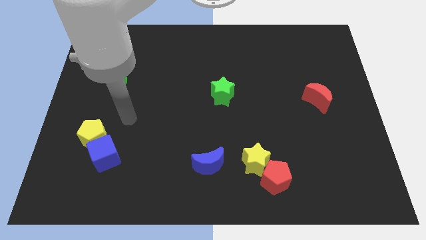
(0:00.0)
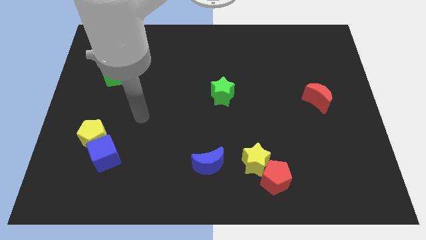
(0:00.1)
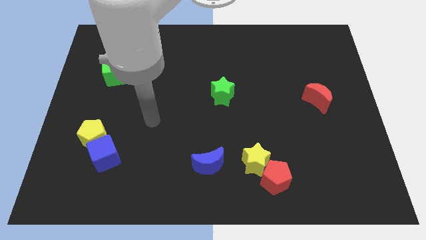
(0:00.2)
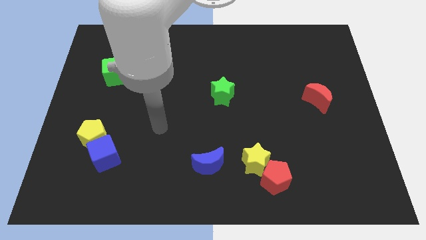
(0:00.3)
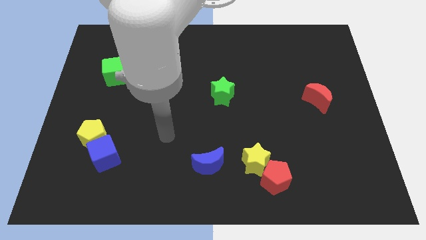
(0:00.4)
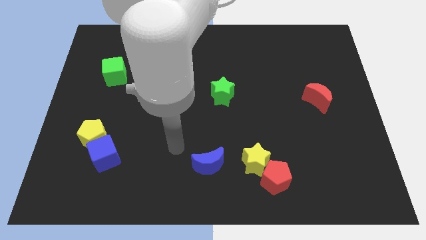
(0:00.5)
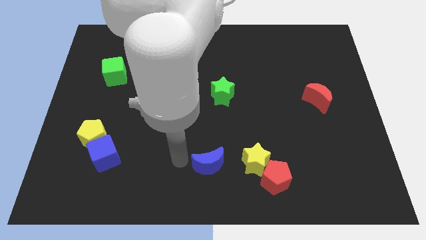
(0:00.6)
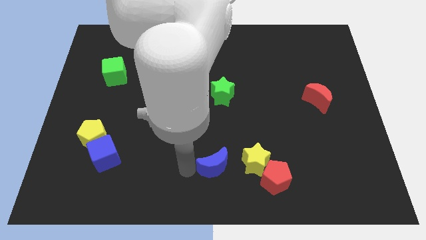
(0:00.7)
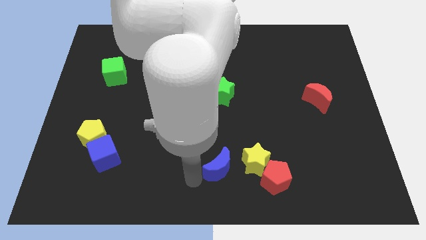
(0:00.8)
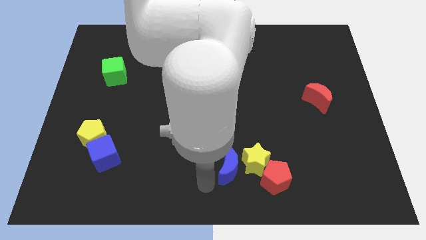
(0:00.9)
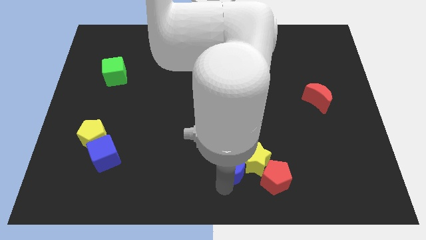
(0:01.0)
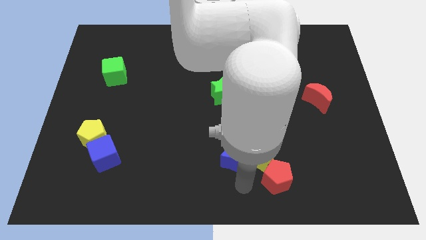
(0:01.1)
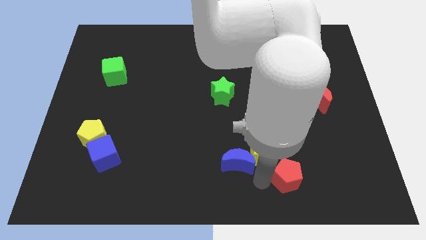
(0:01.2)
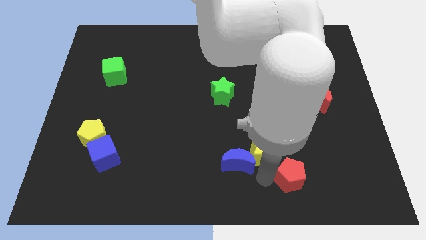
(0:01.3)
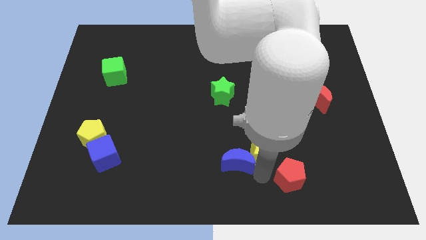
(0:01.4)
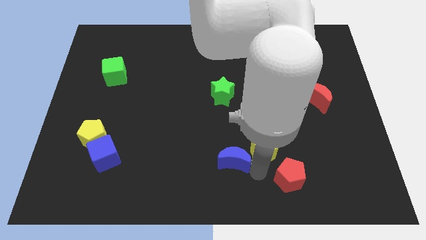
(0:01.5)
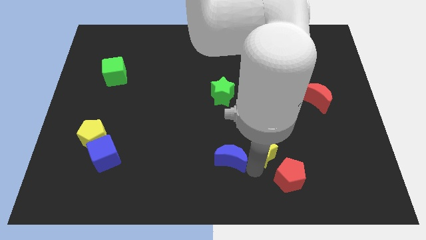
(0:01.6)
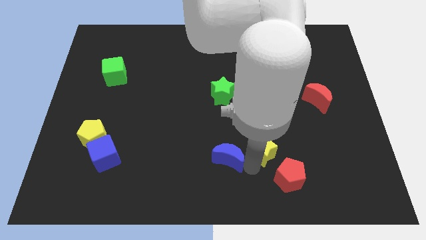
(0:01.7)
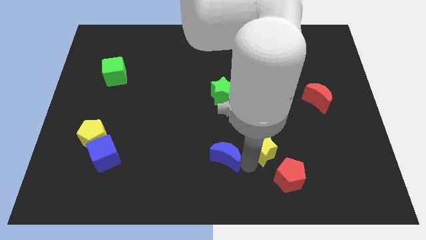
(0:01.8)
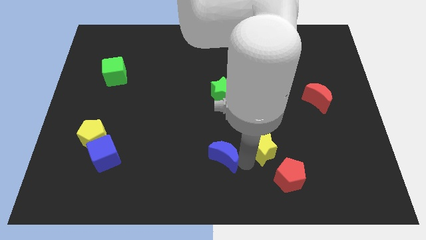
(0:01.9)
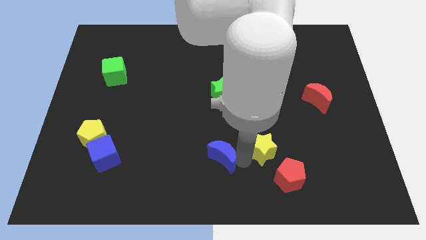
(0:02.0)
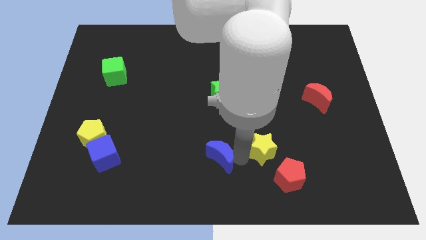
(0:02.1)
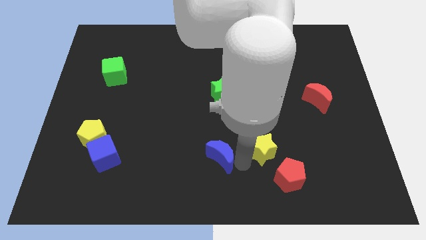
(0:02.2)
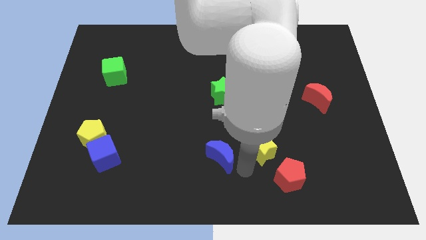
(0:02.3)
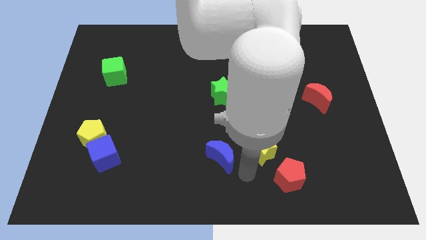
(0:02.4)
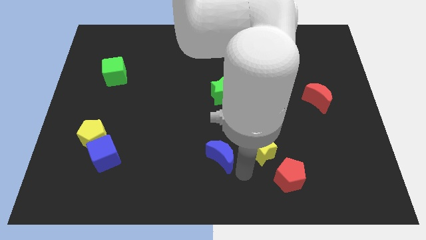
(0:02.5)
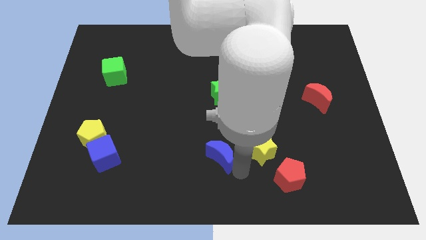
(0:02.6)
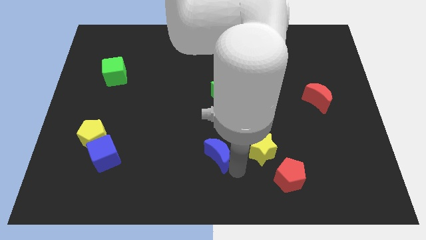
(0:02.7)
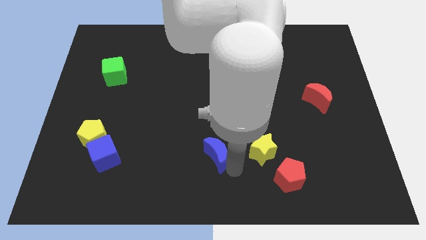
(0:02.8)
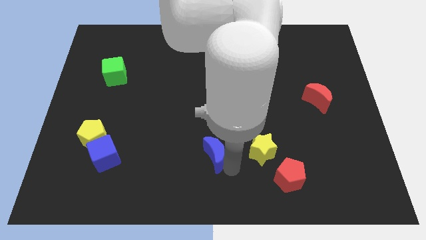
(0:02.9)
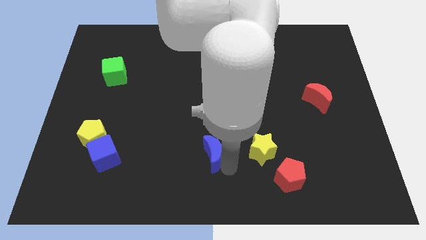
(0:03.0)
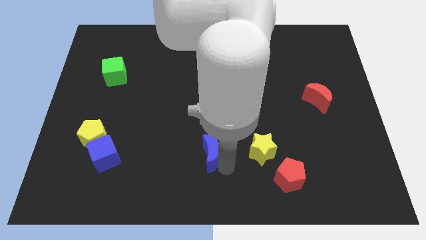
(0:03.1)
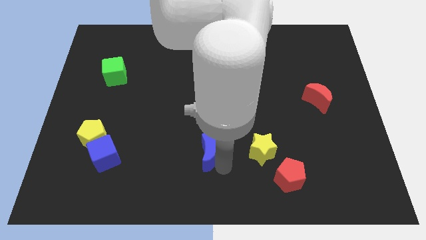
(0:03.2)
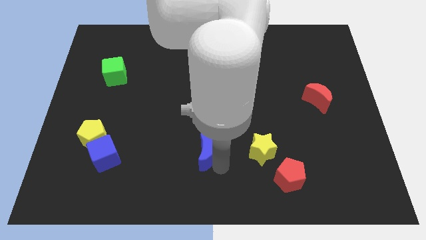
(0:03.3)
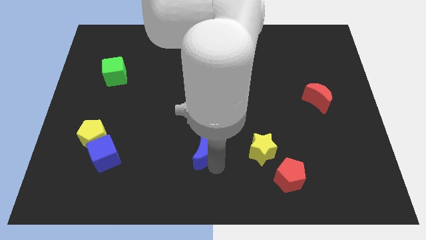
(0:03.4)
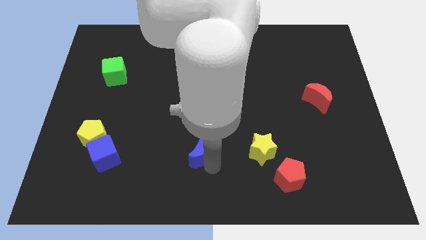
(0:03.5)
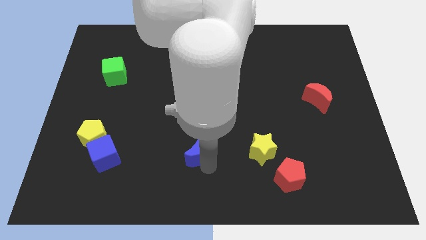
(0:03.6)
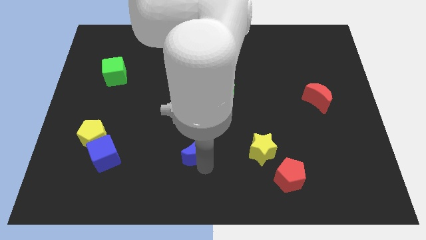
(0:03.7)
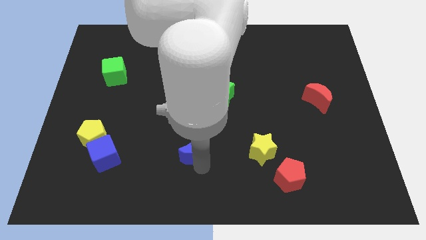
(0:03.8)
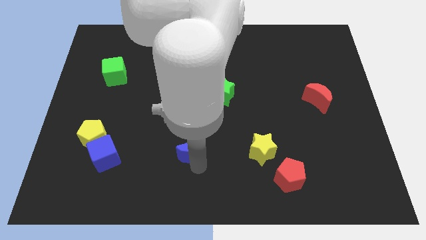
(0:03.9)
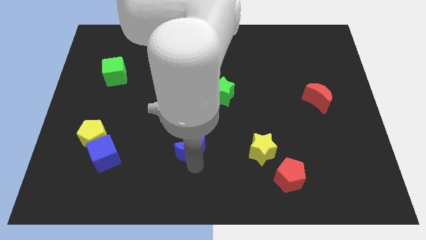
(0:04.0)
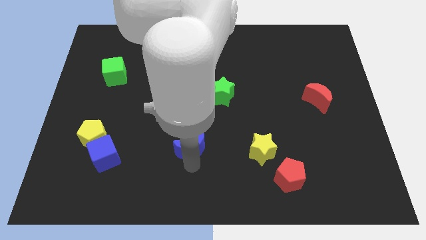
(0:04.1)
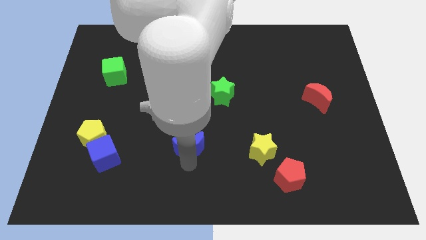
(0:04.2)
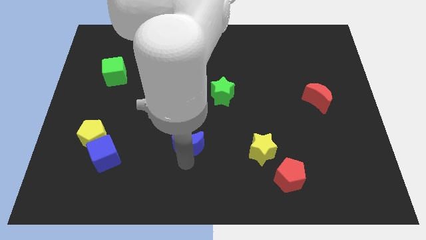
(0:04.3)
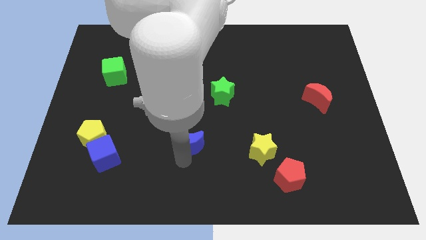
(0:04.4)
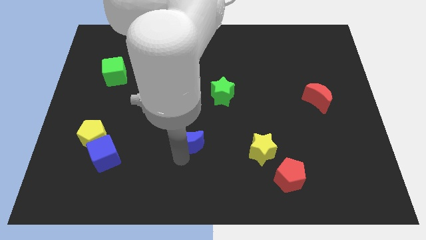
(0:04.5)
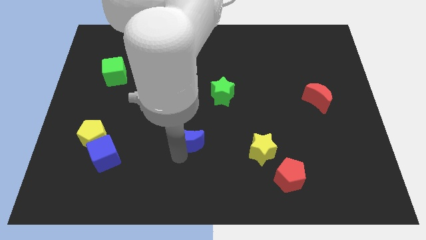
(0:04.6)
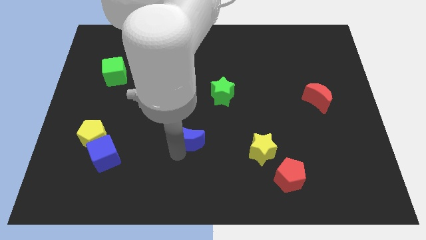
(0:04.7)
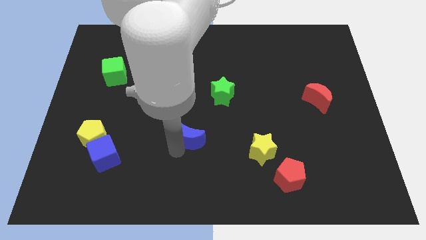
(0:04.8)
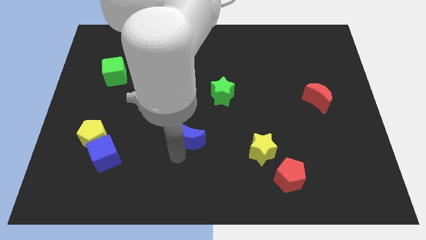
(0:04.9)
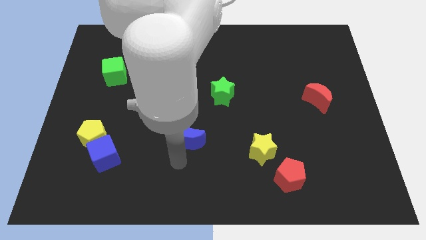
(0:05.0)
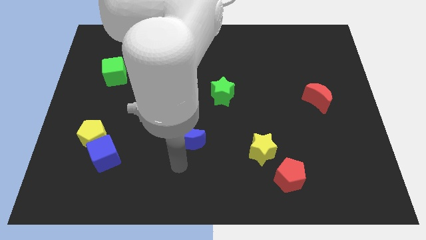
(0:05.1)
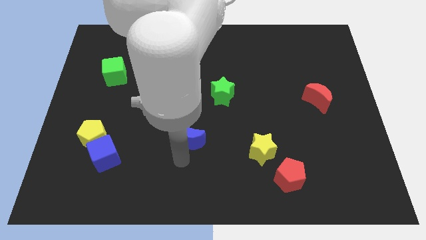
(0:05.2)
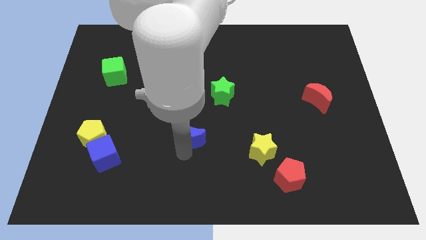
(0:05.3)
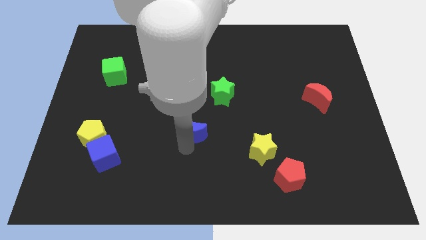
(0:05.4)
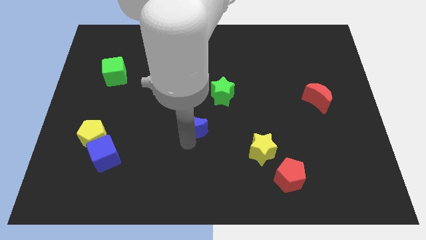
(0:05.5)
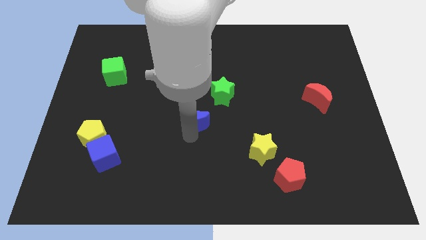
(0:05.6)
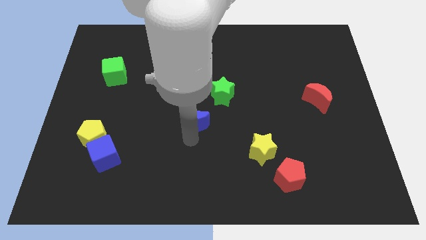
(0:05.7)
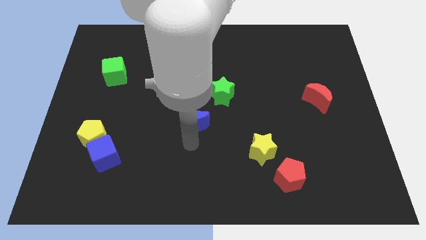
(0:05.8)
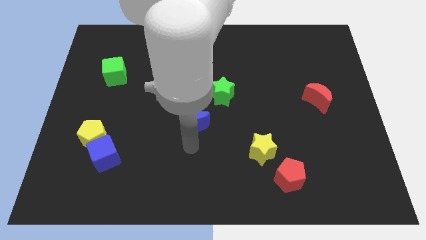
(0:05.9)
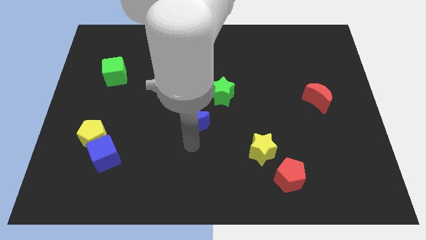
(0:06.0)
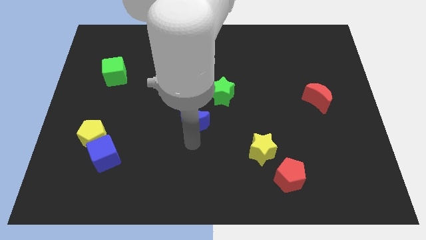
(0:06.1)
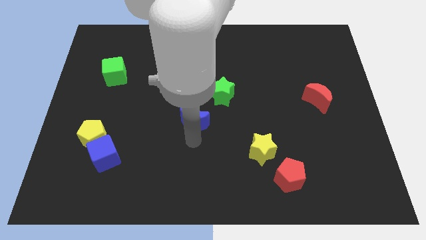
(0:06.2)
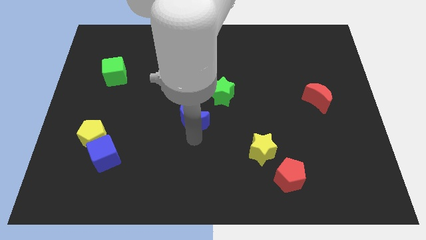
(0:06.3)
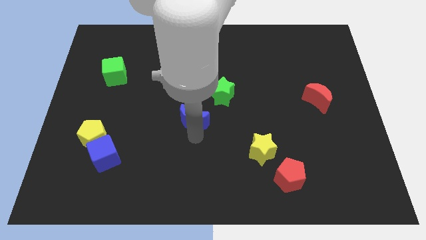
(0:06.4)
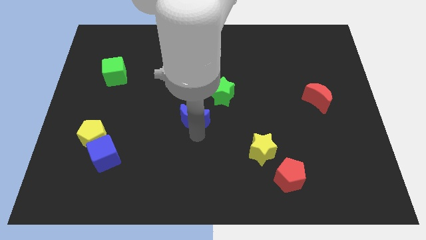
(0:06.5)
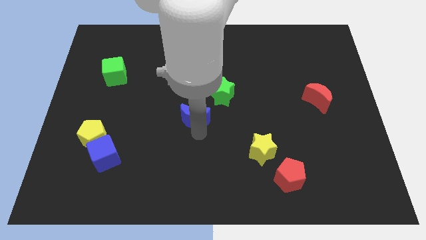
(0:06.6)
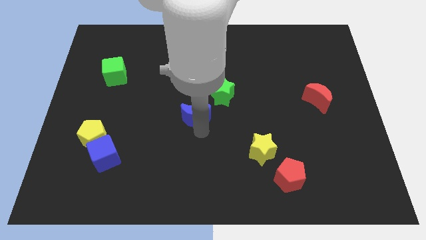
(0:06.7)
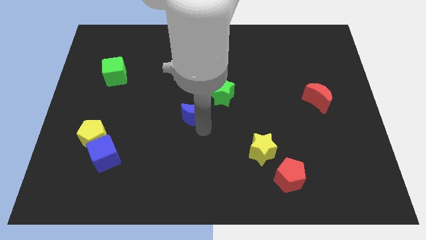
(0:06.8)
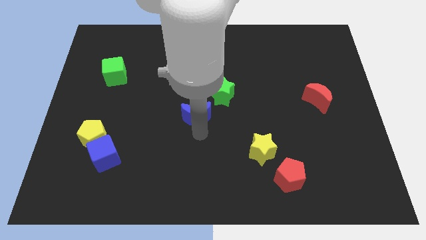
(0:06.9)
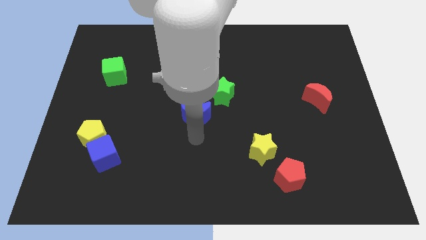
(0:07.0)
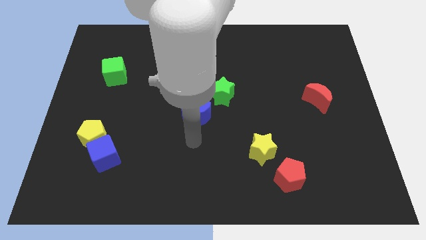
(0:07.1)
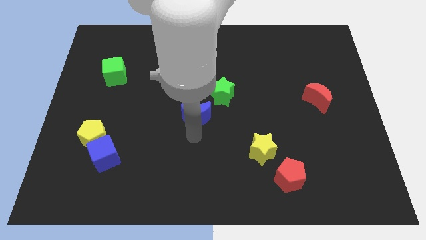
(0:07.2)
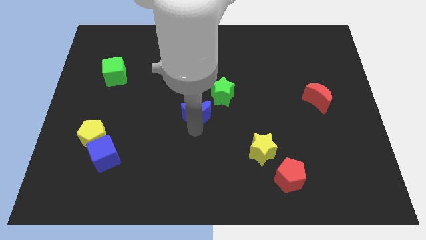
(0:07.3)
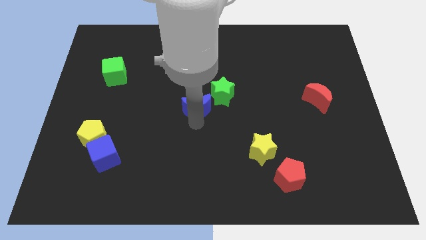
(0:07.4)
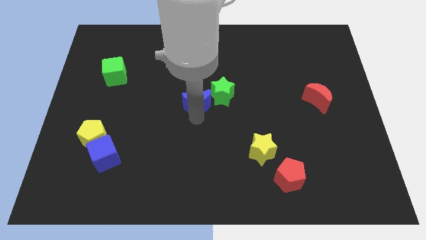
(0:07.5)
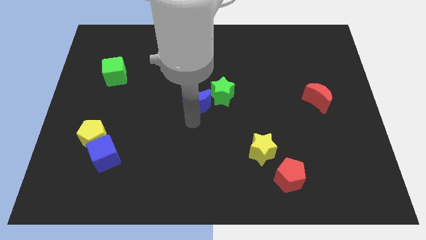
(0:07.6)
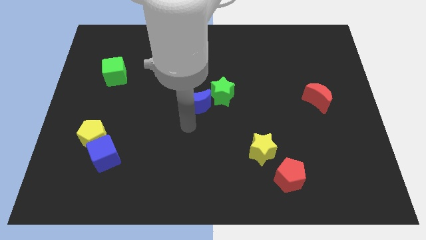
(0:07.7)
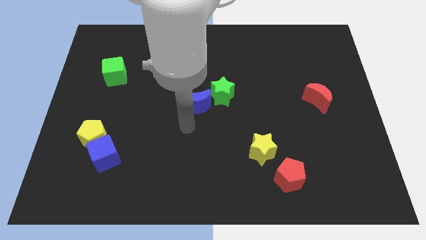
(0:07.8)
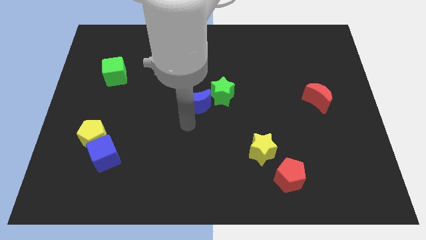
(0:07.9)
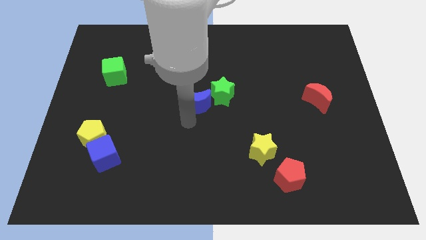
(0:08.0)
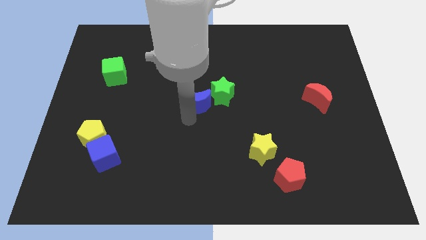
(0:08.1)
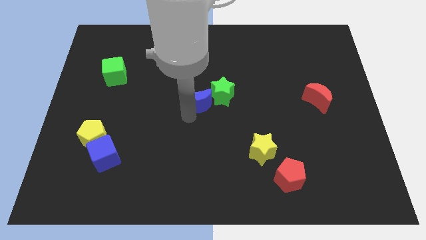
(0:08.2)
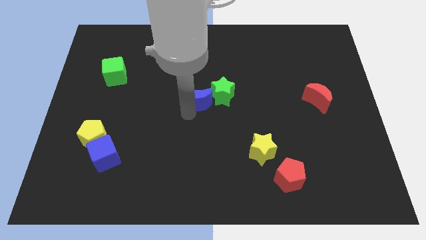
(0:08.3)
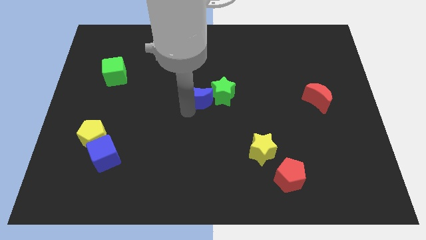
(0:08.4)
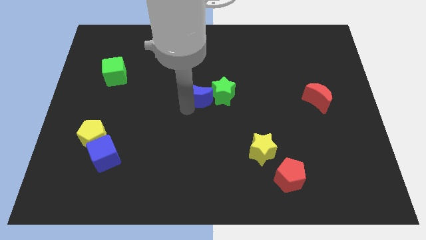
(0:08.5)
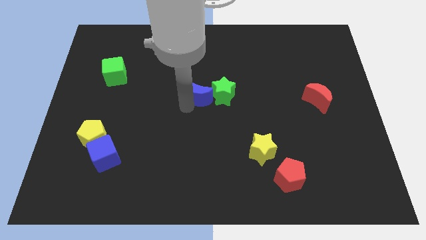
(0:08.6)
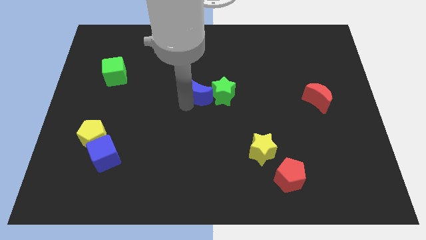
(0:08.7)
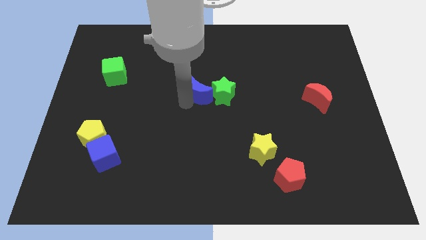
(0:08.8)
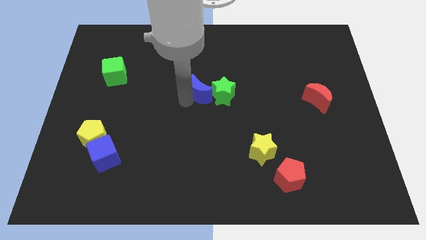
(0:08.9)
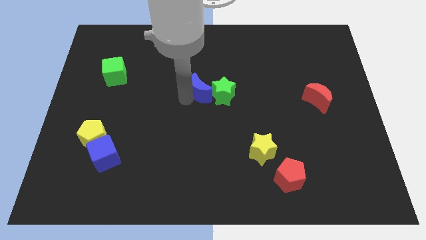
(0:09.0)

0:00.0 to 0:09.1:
move the blue moon up
